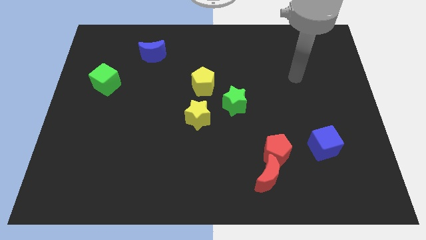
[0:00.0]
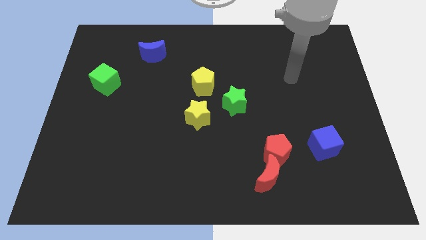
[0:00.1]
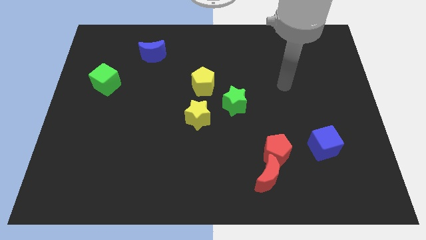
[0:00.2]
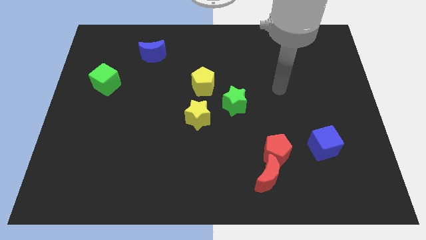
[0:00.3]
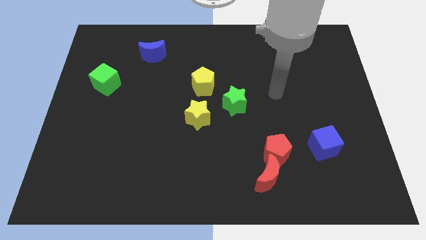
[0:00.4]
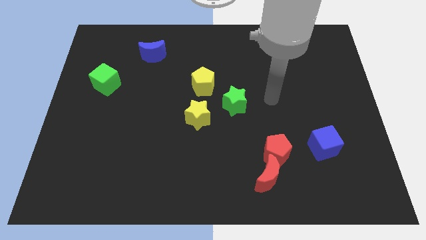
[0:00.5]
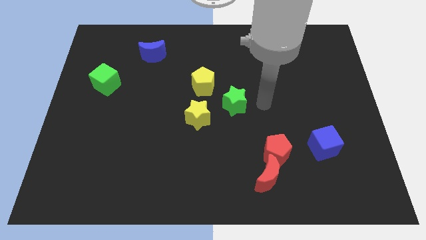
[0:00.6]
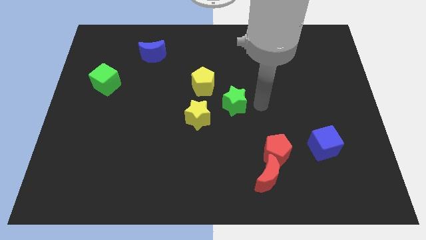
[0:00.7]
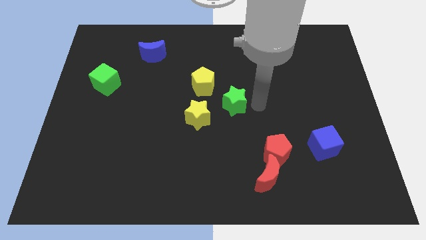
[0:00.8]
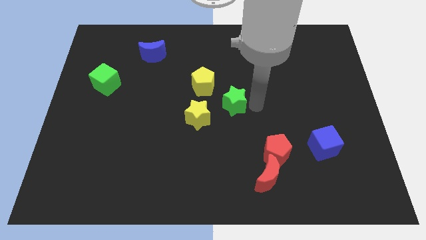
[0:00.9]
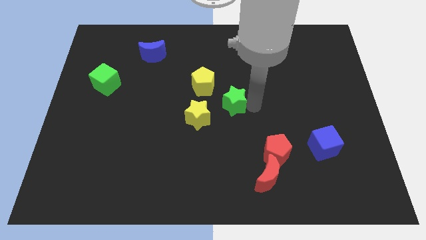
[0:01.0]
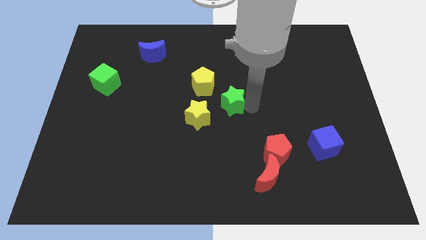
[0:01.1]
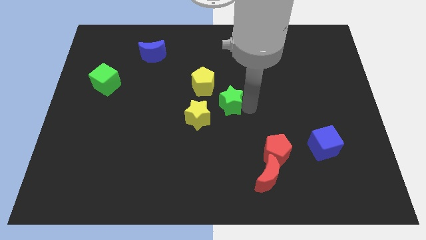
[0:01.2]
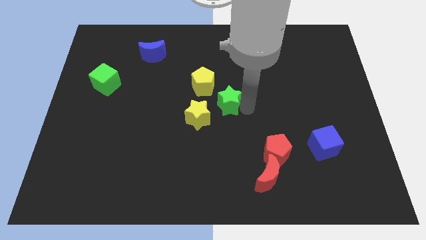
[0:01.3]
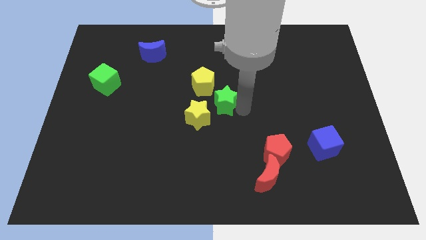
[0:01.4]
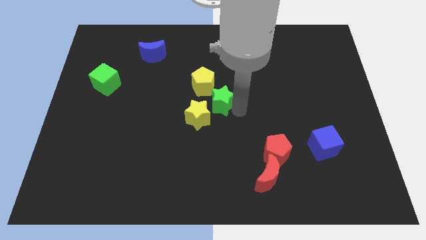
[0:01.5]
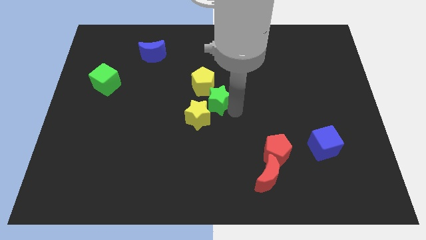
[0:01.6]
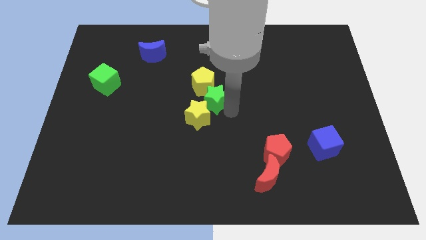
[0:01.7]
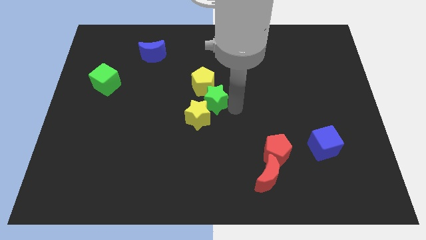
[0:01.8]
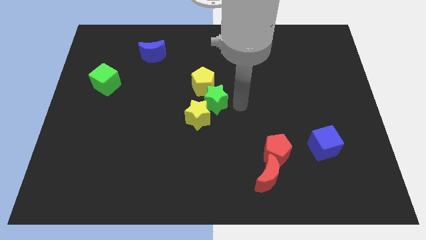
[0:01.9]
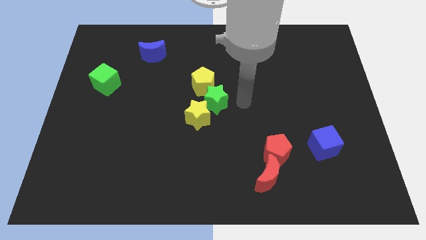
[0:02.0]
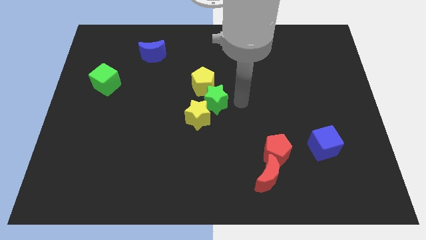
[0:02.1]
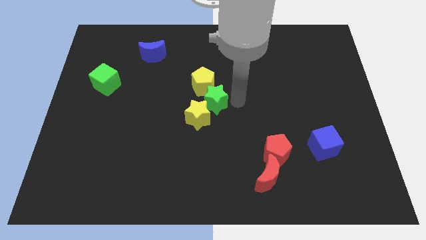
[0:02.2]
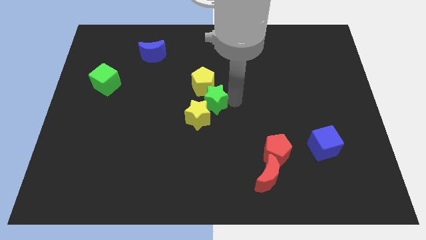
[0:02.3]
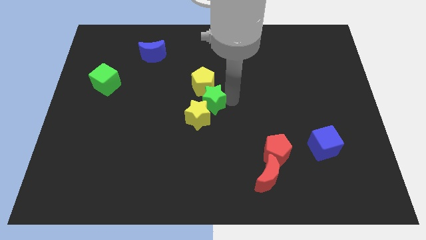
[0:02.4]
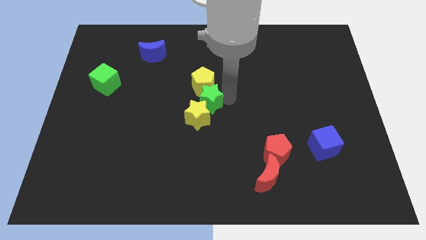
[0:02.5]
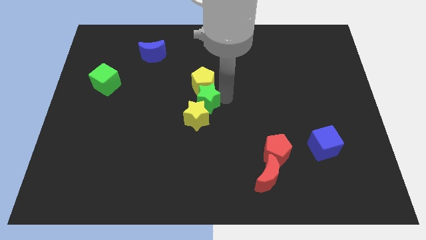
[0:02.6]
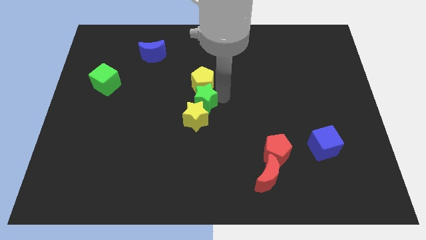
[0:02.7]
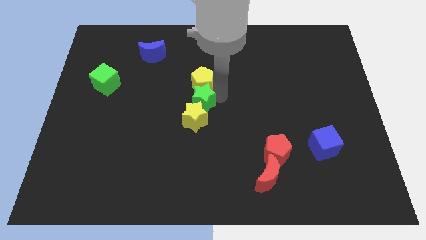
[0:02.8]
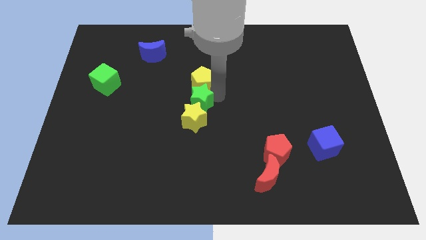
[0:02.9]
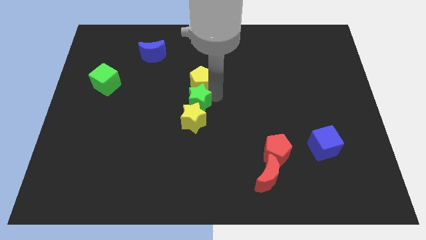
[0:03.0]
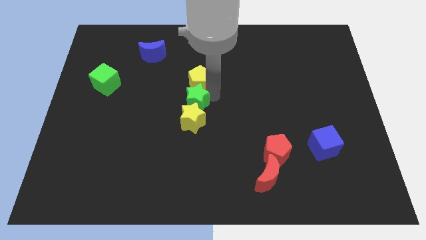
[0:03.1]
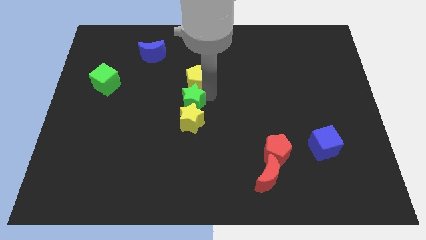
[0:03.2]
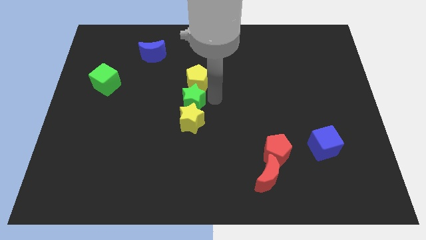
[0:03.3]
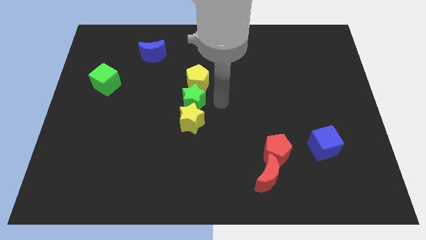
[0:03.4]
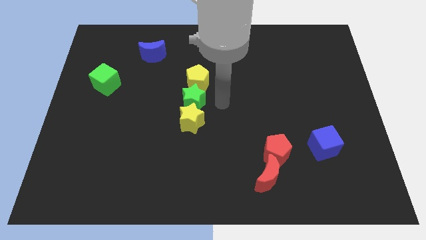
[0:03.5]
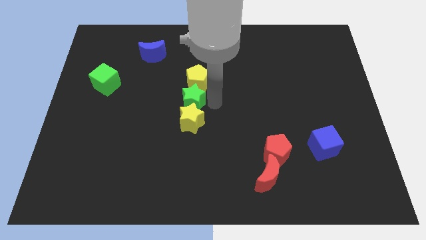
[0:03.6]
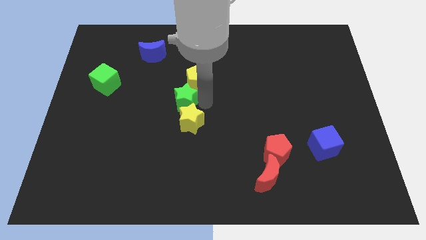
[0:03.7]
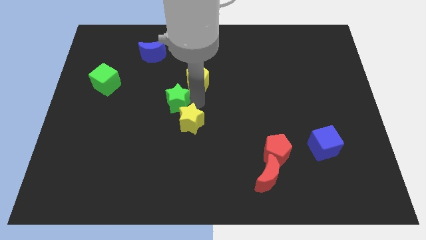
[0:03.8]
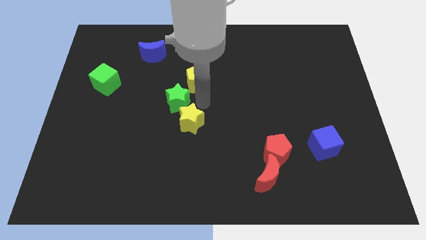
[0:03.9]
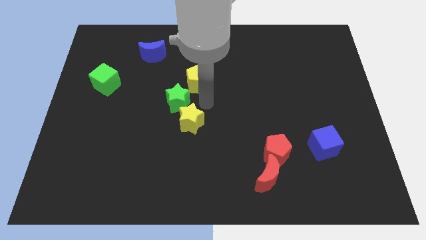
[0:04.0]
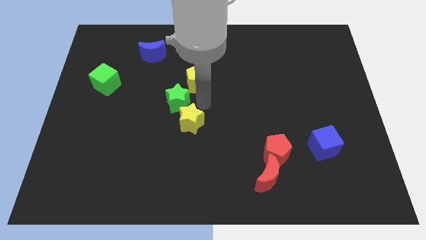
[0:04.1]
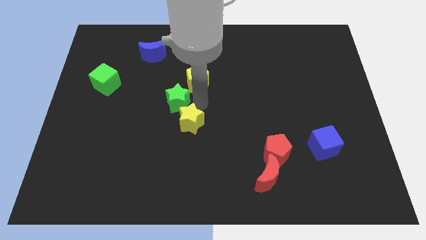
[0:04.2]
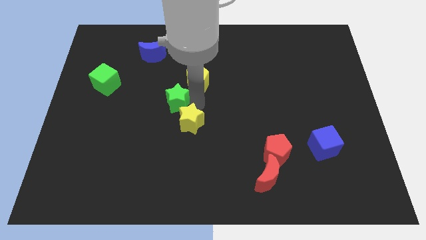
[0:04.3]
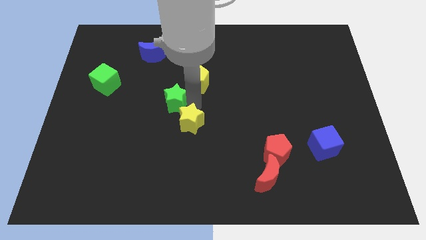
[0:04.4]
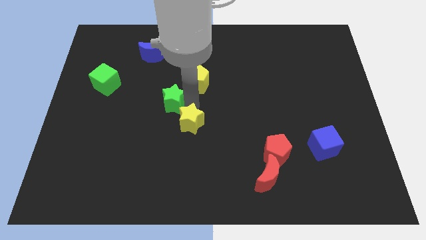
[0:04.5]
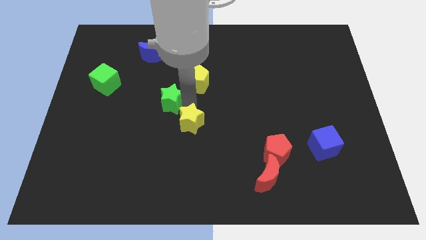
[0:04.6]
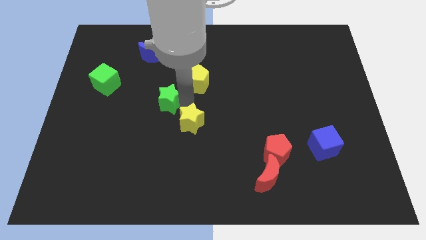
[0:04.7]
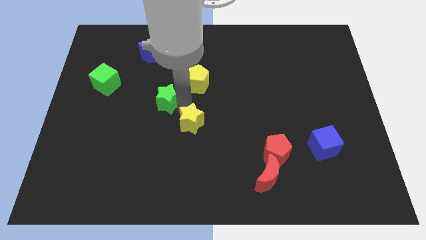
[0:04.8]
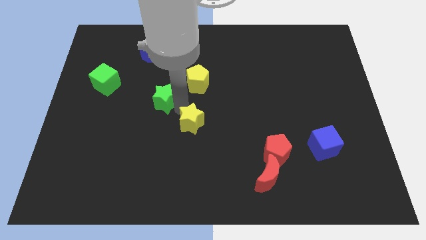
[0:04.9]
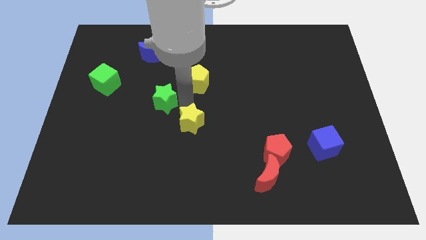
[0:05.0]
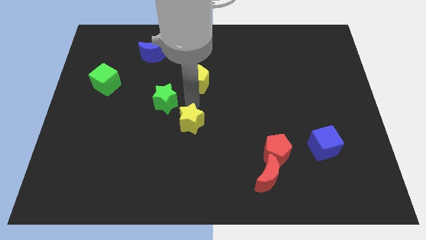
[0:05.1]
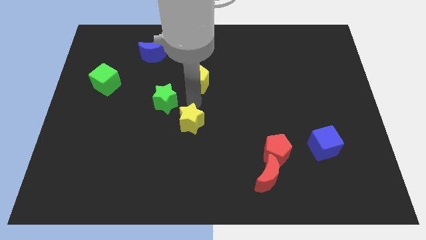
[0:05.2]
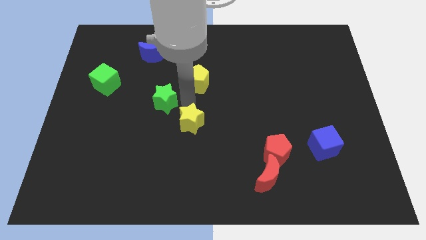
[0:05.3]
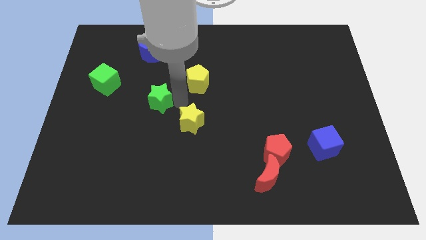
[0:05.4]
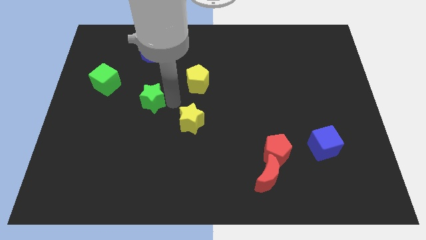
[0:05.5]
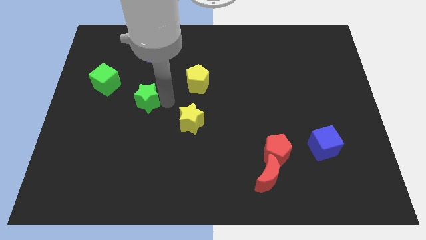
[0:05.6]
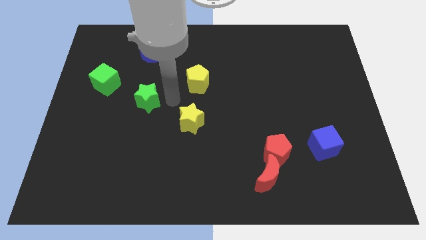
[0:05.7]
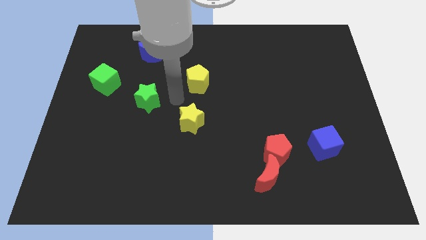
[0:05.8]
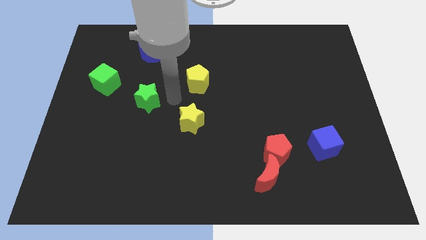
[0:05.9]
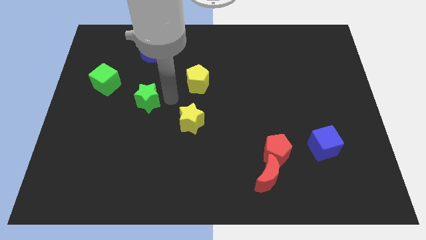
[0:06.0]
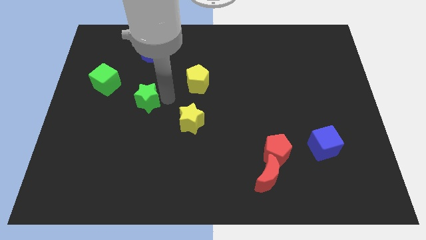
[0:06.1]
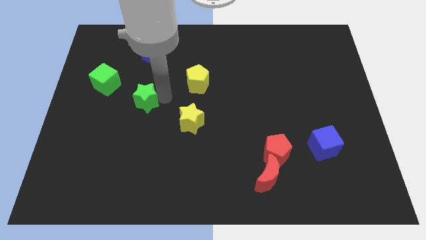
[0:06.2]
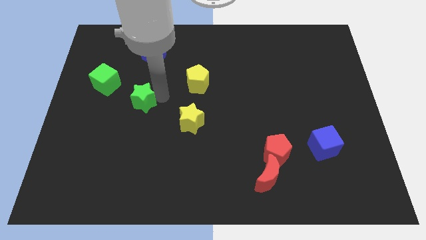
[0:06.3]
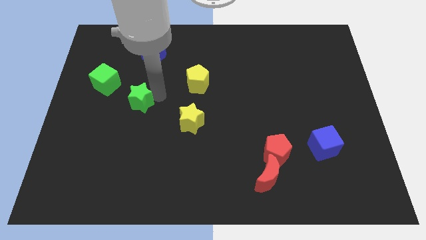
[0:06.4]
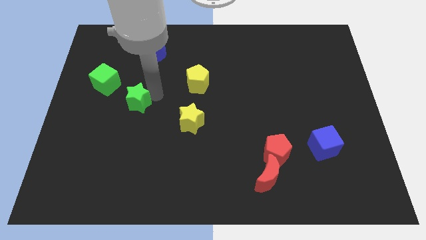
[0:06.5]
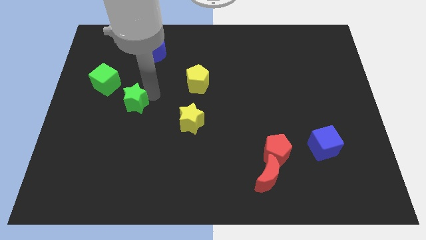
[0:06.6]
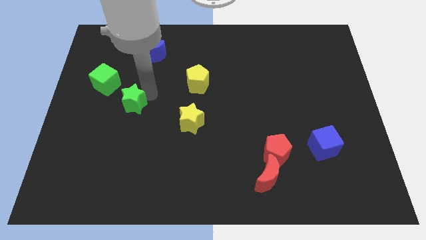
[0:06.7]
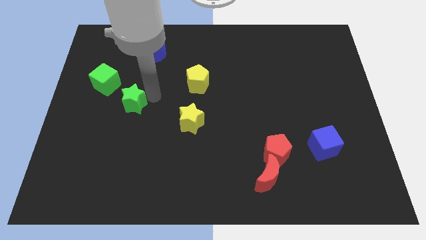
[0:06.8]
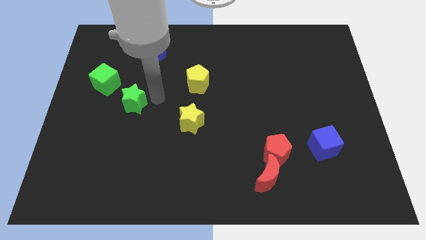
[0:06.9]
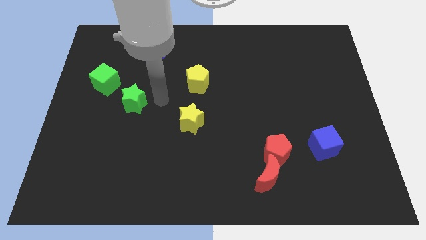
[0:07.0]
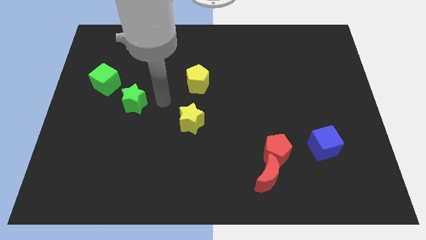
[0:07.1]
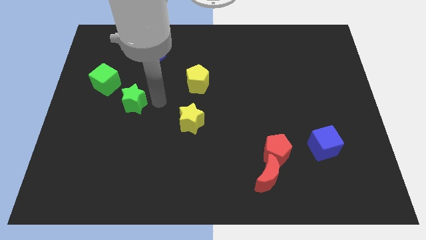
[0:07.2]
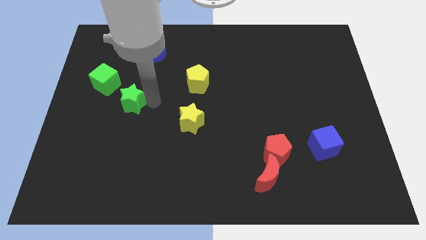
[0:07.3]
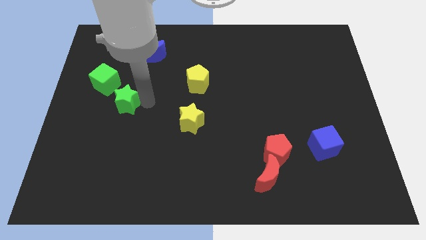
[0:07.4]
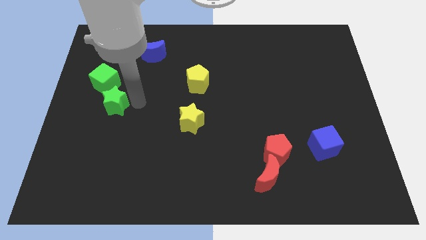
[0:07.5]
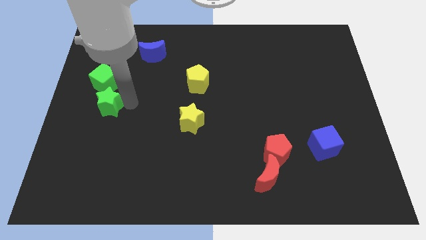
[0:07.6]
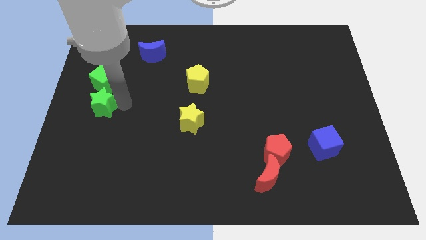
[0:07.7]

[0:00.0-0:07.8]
push the green star to the left side
